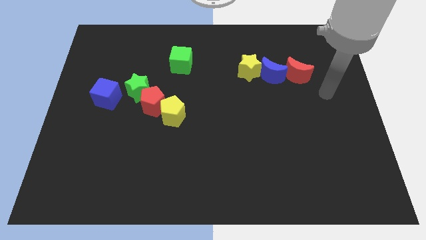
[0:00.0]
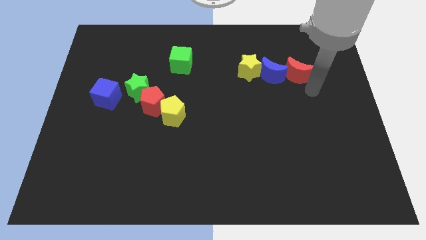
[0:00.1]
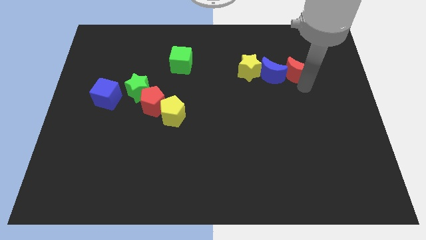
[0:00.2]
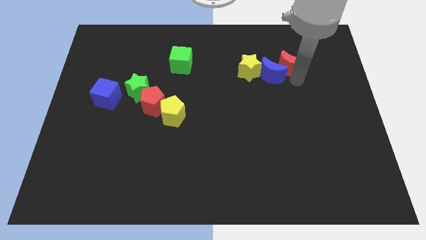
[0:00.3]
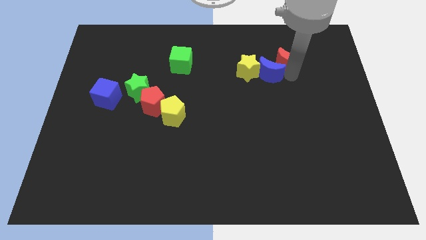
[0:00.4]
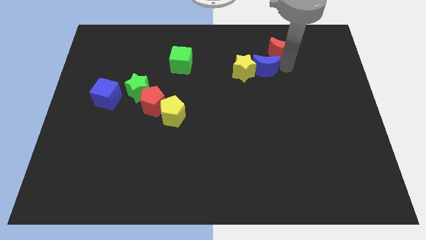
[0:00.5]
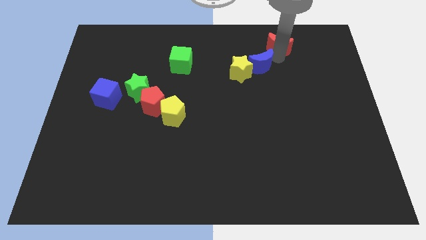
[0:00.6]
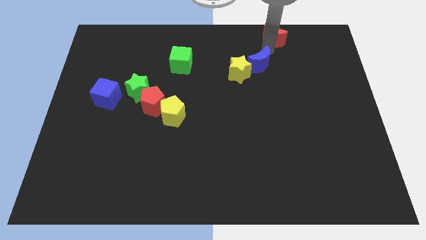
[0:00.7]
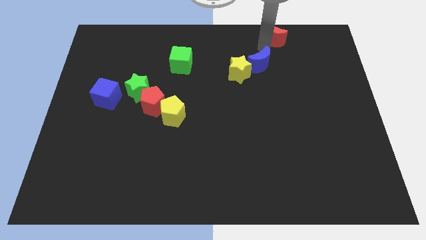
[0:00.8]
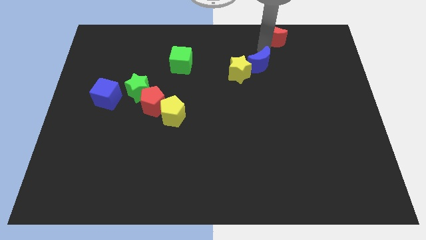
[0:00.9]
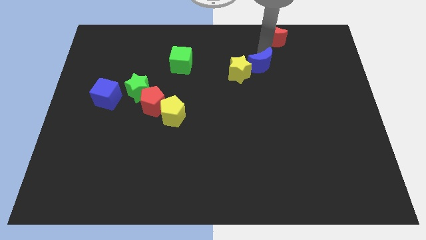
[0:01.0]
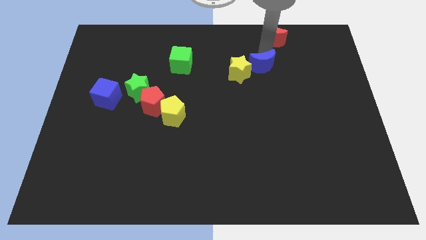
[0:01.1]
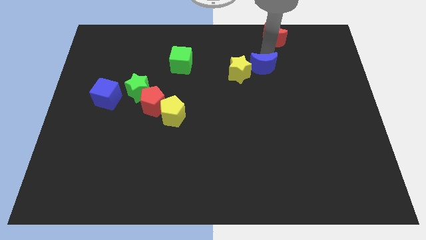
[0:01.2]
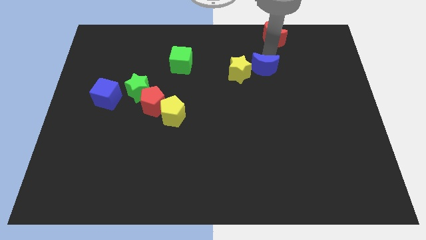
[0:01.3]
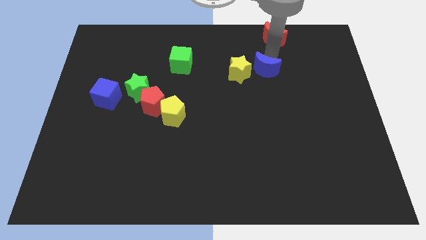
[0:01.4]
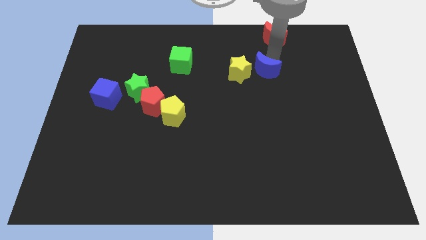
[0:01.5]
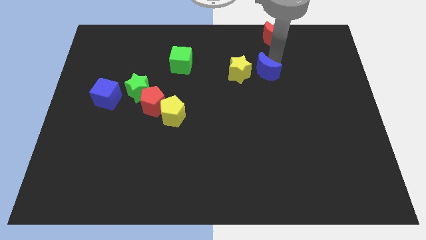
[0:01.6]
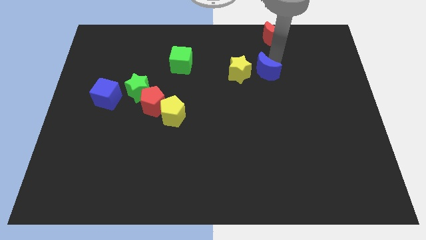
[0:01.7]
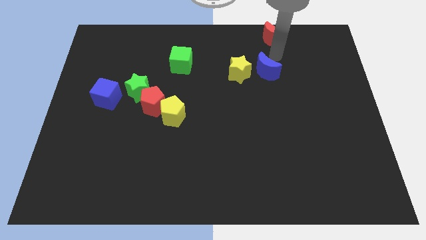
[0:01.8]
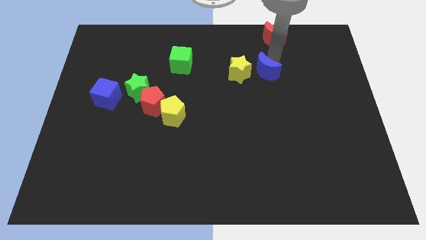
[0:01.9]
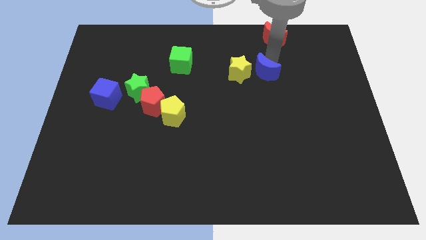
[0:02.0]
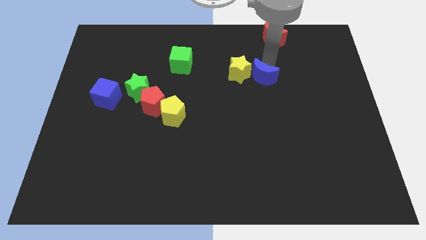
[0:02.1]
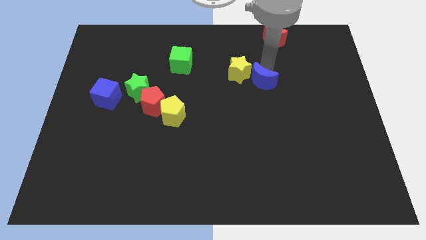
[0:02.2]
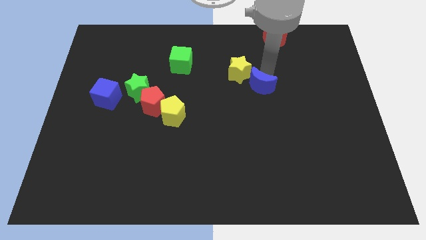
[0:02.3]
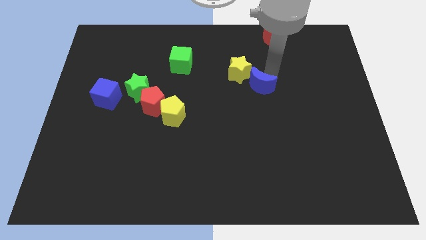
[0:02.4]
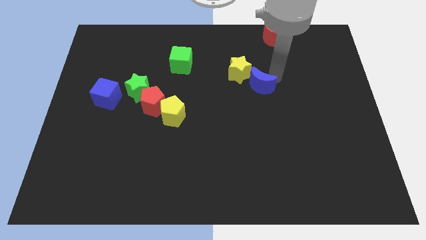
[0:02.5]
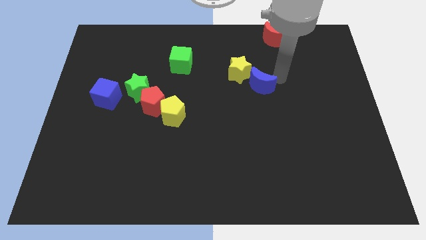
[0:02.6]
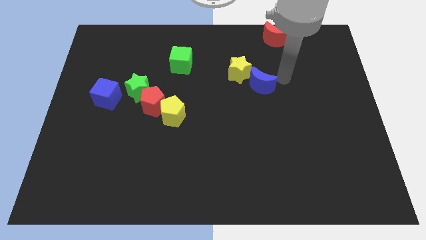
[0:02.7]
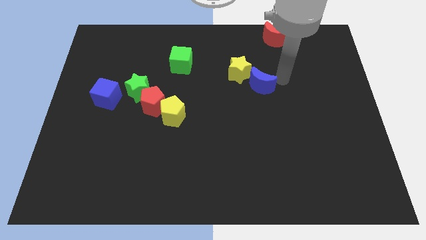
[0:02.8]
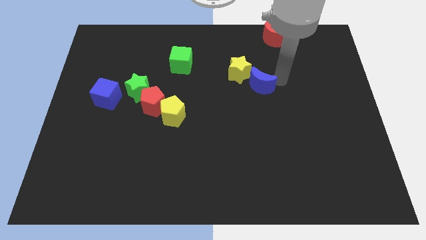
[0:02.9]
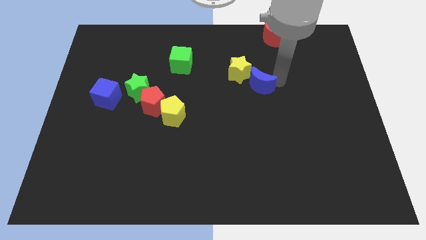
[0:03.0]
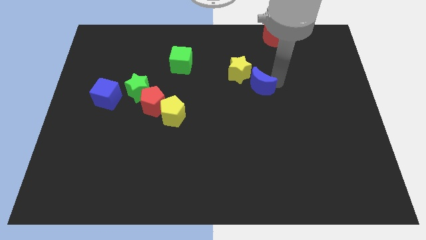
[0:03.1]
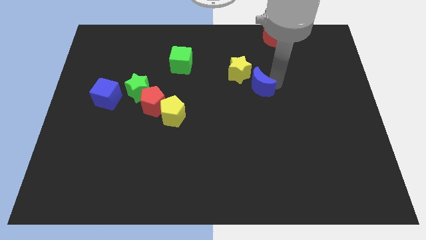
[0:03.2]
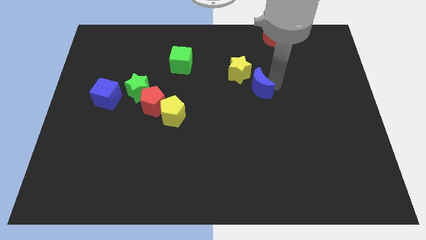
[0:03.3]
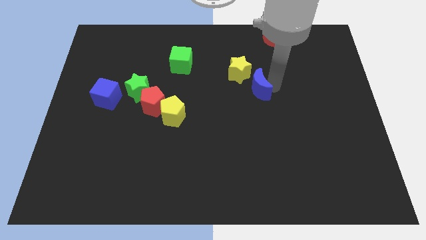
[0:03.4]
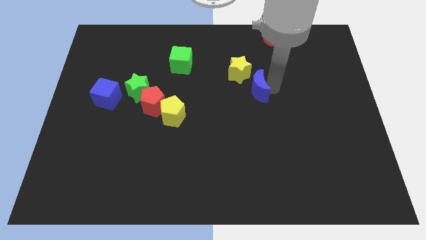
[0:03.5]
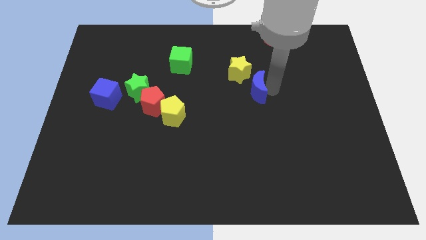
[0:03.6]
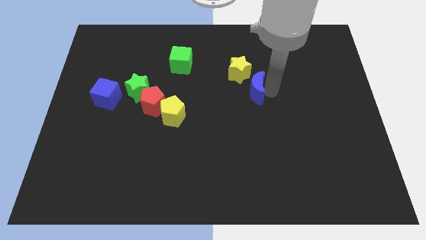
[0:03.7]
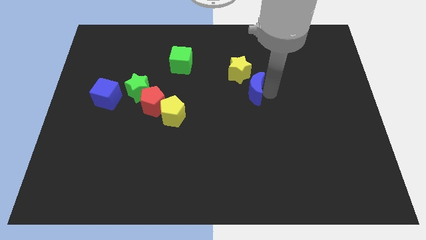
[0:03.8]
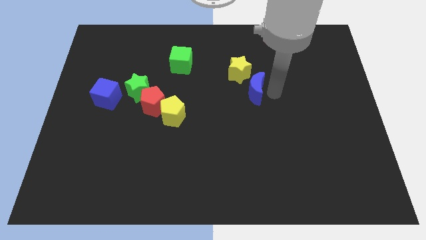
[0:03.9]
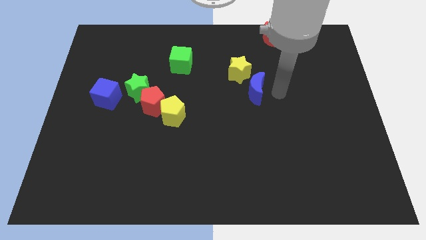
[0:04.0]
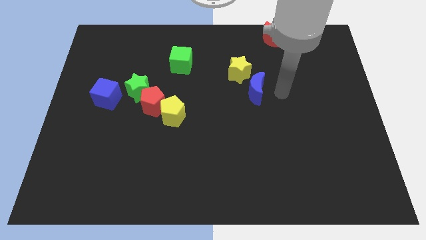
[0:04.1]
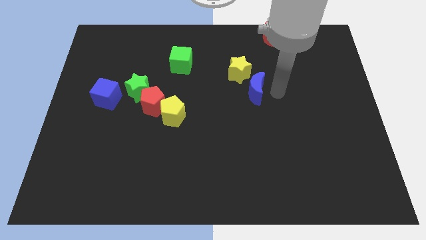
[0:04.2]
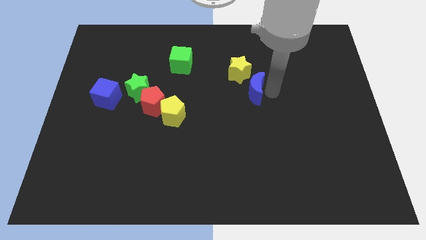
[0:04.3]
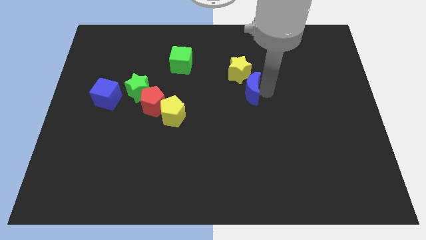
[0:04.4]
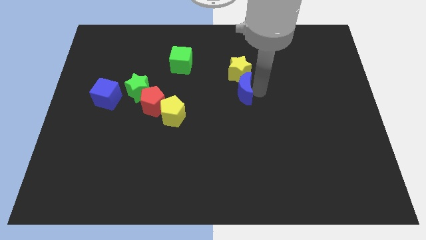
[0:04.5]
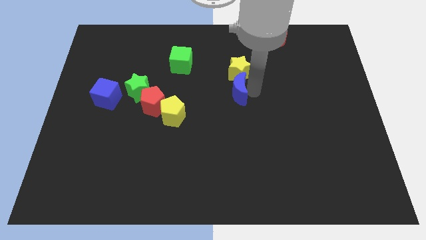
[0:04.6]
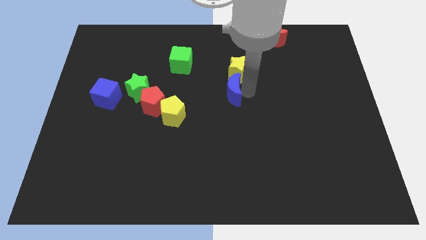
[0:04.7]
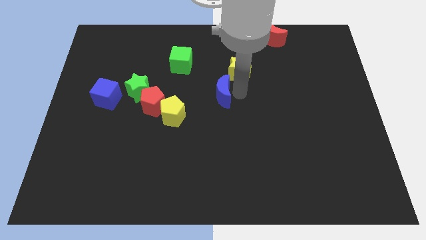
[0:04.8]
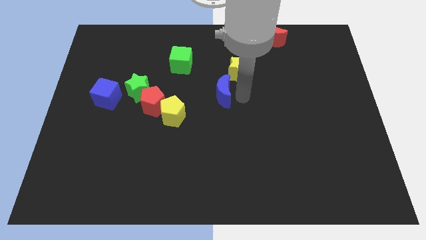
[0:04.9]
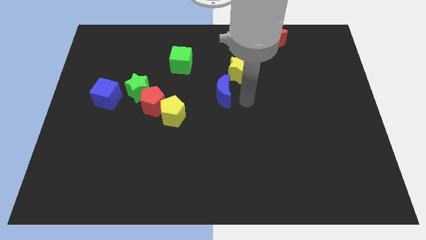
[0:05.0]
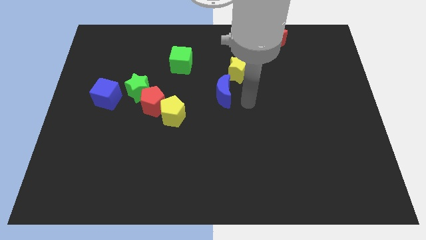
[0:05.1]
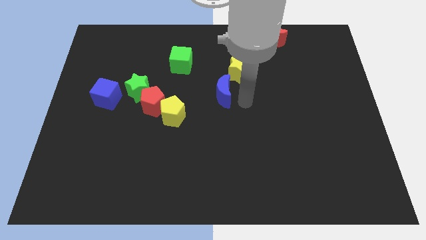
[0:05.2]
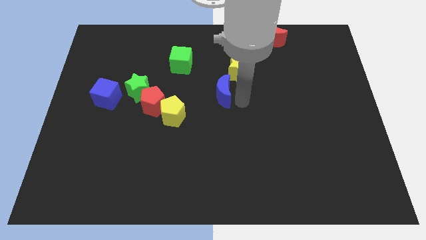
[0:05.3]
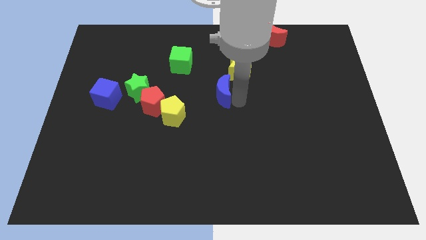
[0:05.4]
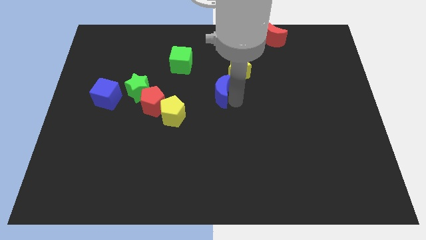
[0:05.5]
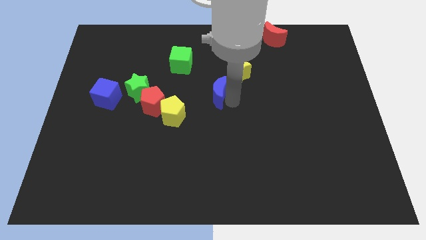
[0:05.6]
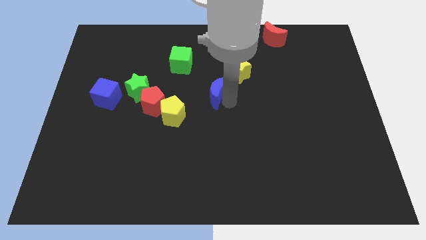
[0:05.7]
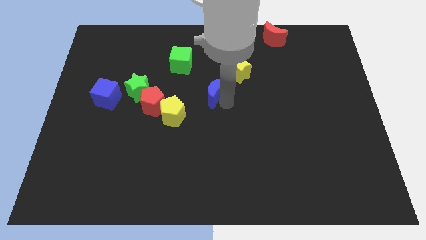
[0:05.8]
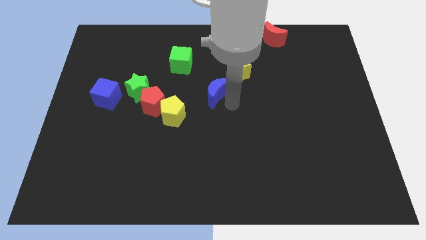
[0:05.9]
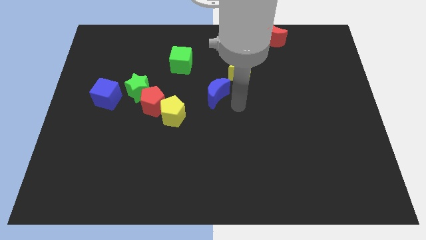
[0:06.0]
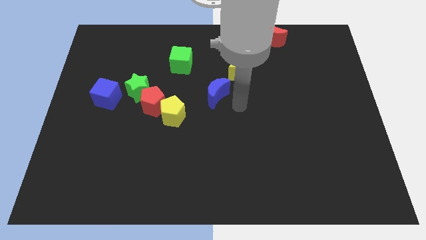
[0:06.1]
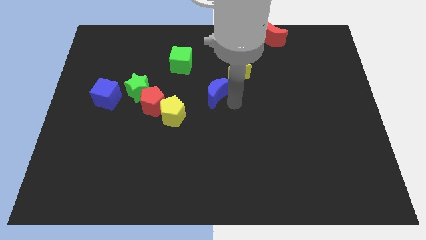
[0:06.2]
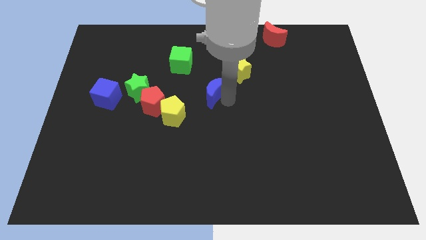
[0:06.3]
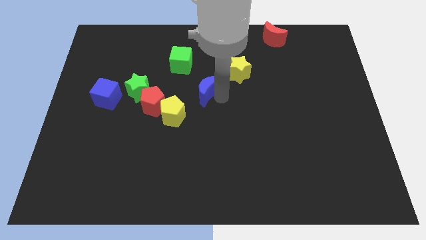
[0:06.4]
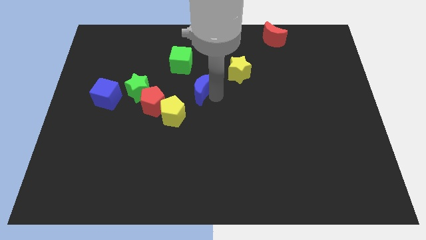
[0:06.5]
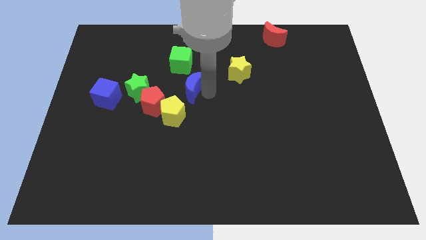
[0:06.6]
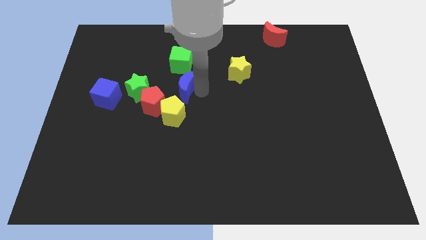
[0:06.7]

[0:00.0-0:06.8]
slide the blue moon left

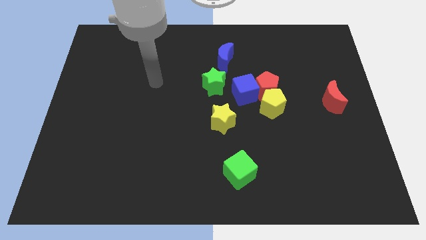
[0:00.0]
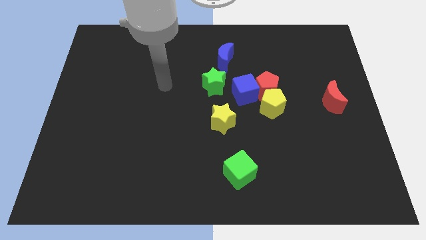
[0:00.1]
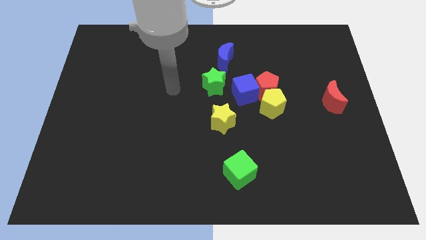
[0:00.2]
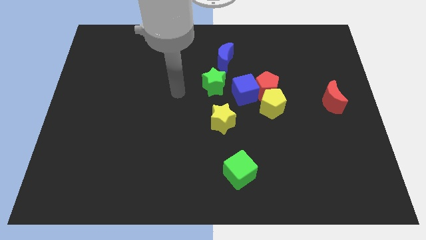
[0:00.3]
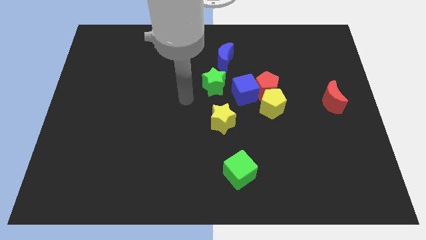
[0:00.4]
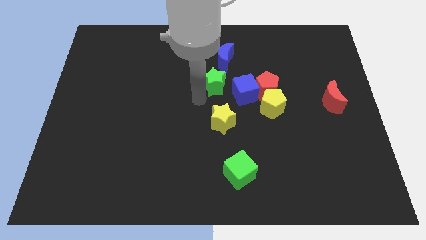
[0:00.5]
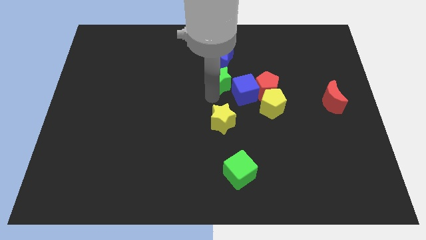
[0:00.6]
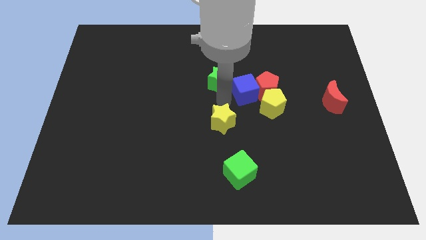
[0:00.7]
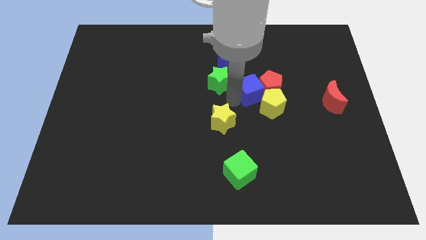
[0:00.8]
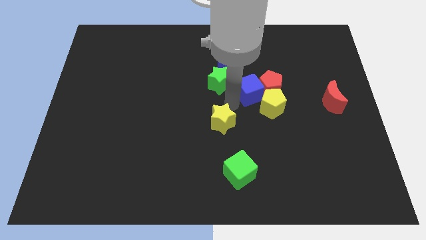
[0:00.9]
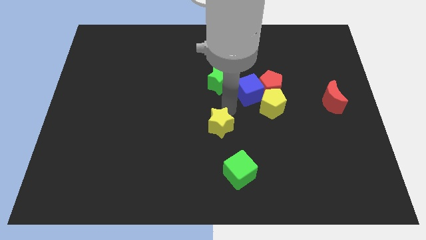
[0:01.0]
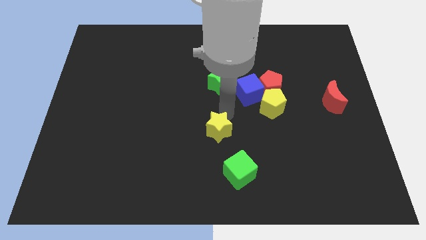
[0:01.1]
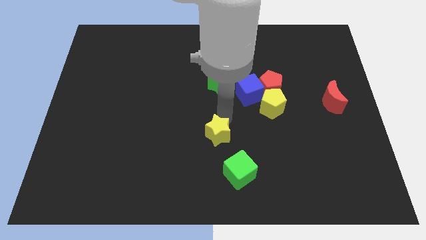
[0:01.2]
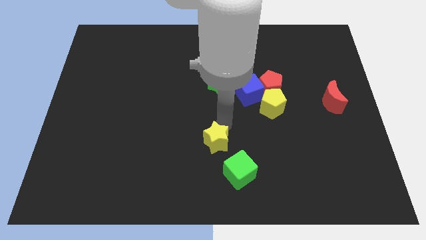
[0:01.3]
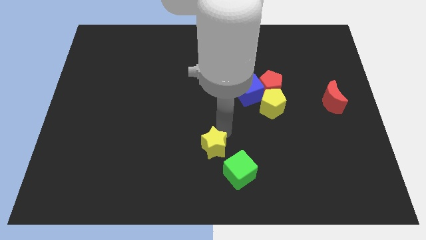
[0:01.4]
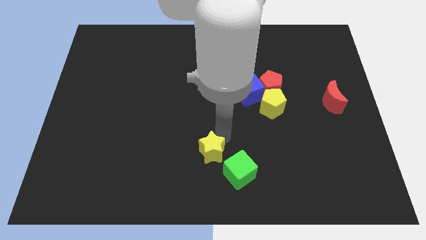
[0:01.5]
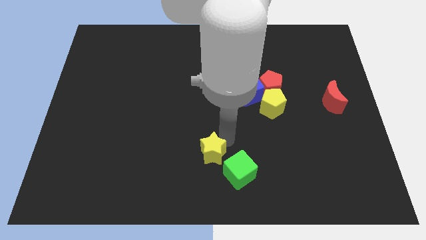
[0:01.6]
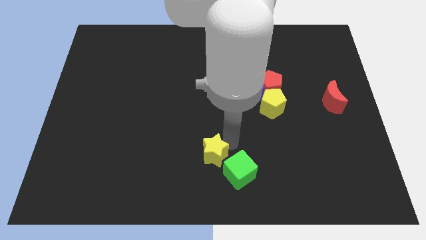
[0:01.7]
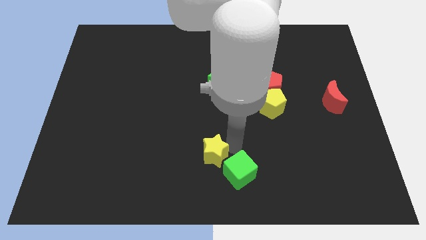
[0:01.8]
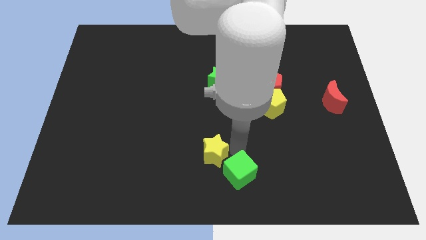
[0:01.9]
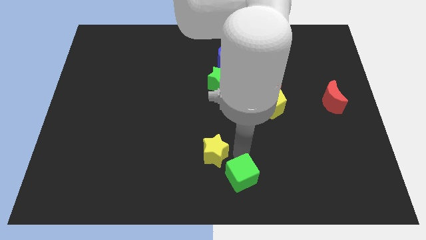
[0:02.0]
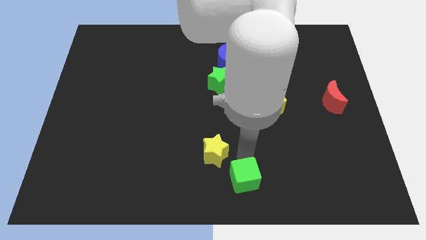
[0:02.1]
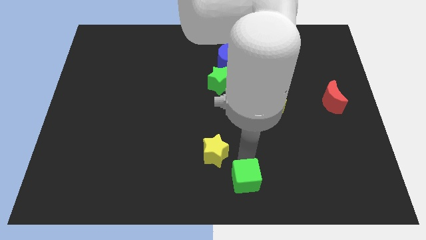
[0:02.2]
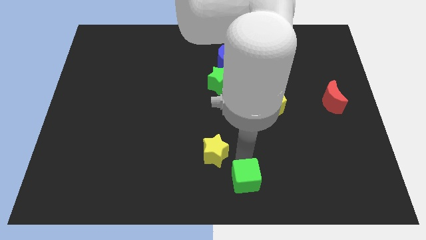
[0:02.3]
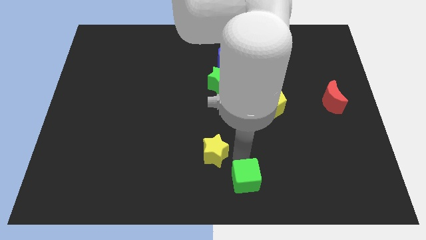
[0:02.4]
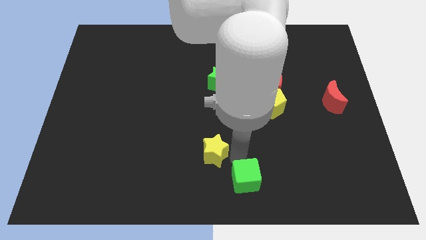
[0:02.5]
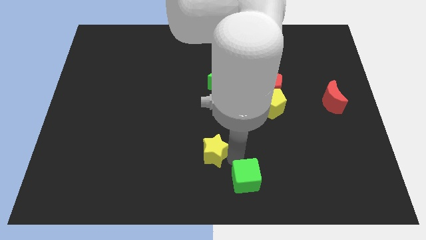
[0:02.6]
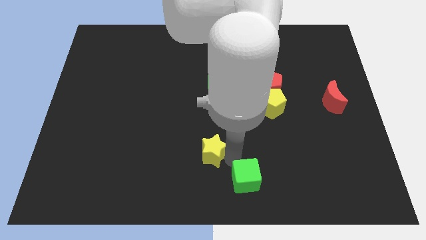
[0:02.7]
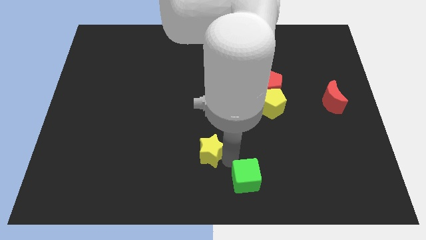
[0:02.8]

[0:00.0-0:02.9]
slightly move the yellow star downwards and left
